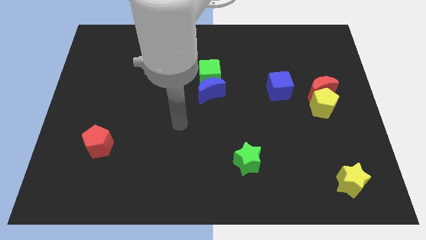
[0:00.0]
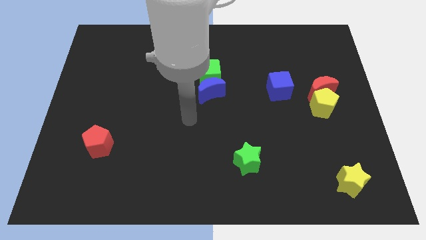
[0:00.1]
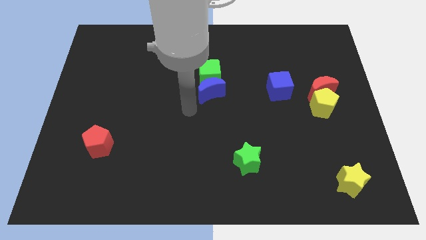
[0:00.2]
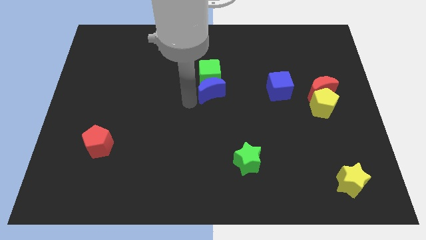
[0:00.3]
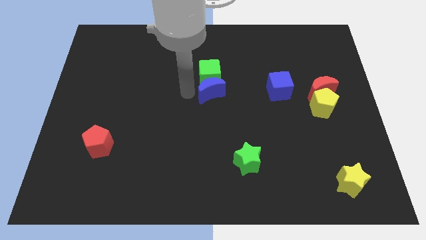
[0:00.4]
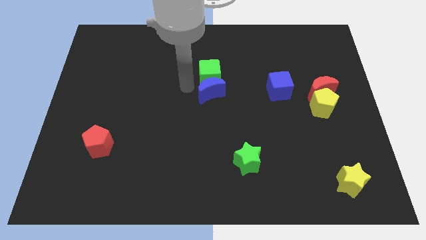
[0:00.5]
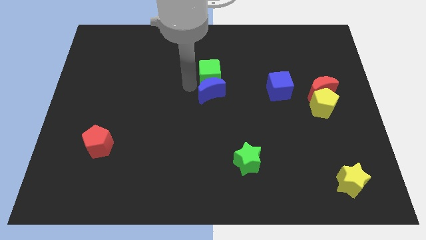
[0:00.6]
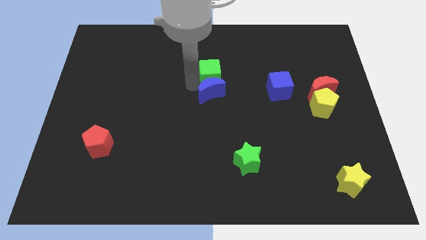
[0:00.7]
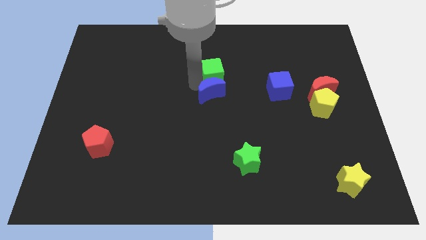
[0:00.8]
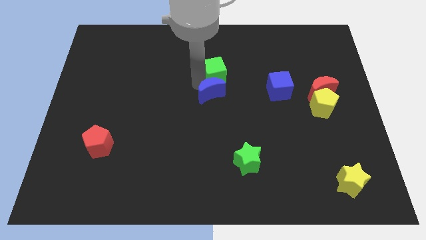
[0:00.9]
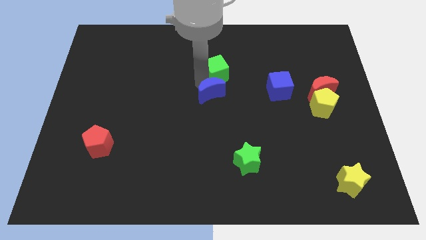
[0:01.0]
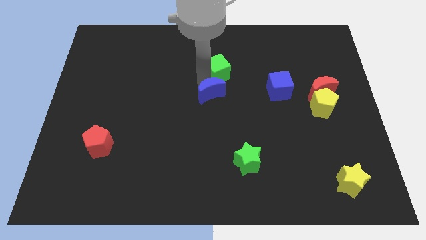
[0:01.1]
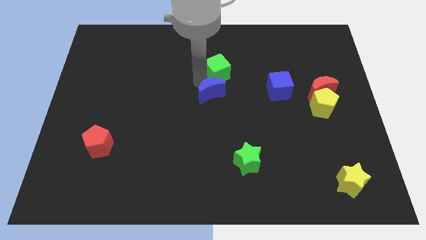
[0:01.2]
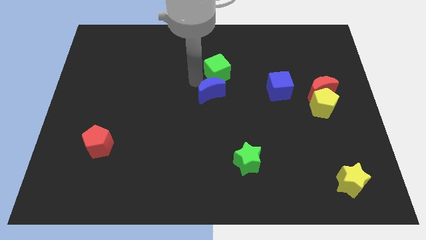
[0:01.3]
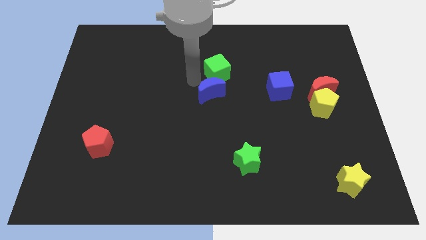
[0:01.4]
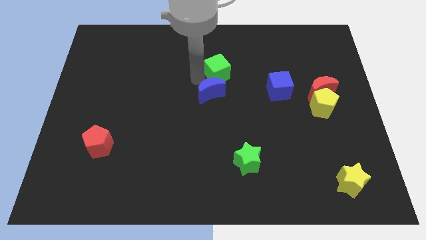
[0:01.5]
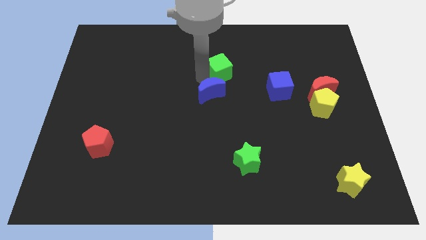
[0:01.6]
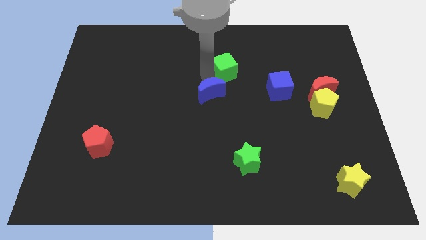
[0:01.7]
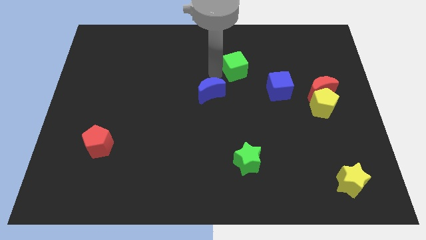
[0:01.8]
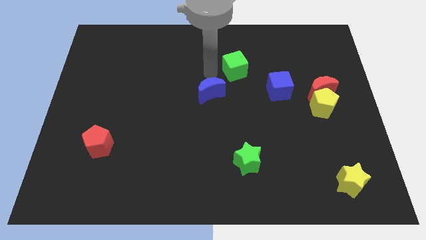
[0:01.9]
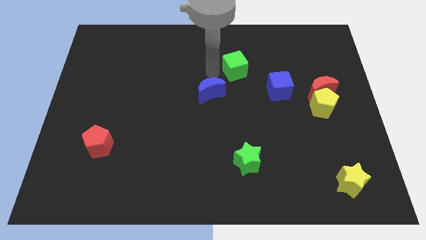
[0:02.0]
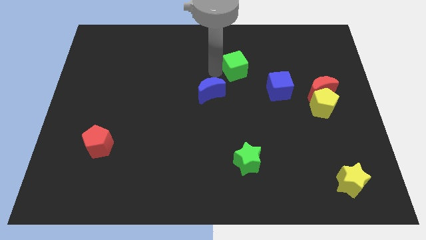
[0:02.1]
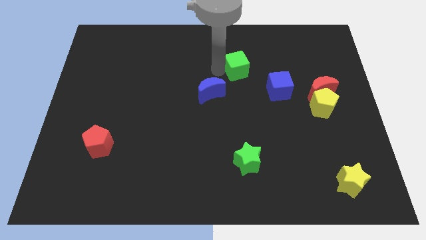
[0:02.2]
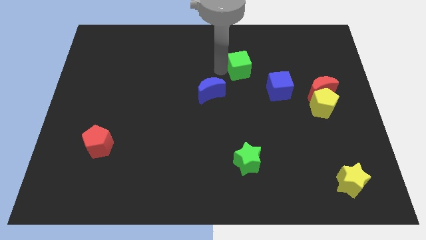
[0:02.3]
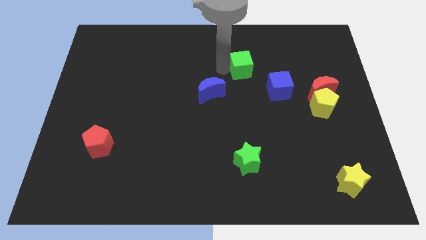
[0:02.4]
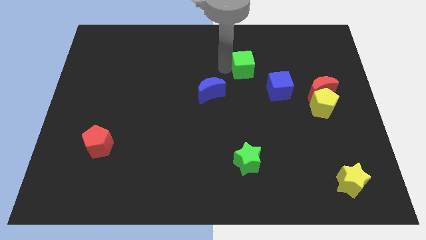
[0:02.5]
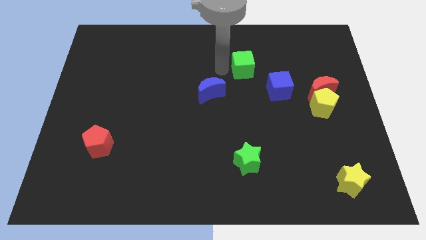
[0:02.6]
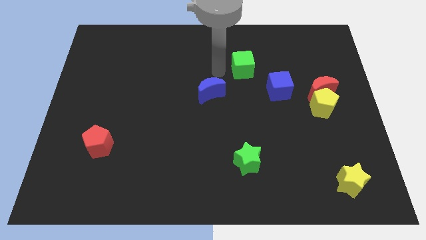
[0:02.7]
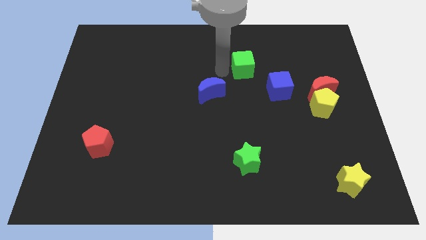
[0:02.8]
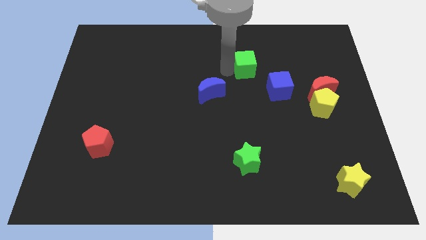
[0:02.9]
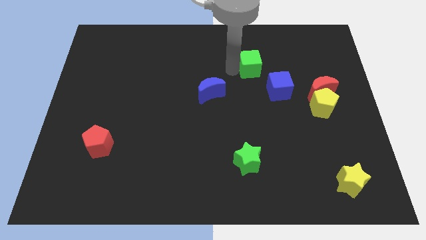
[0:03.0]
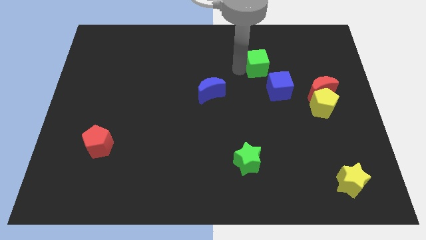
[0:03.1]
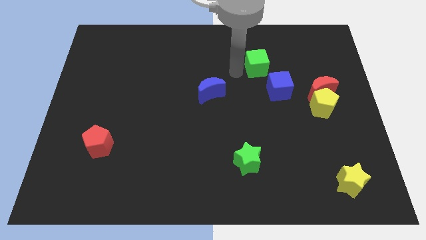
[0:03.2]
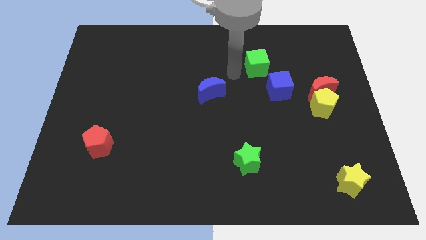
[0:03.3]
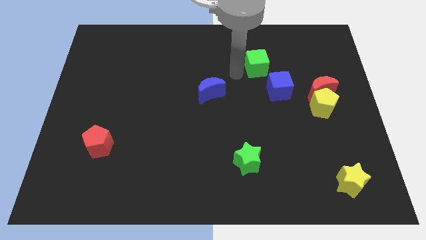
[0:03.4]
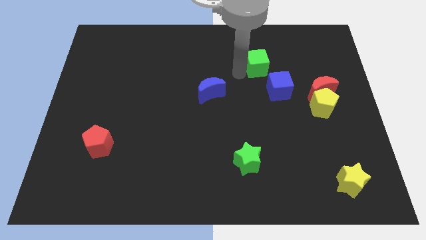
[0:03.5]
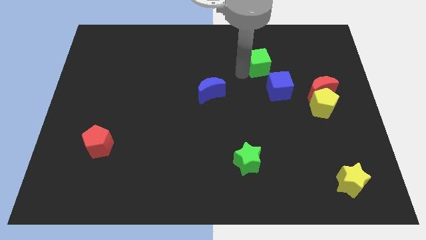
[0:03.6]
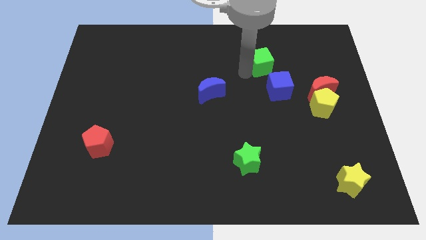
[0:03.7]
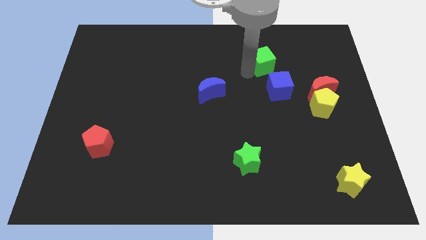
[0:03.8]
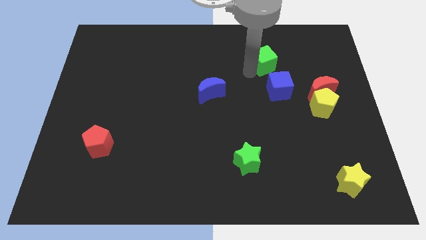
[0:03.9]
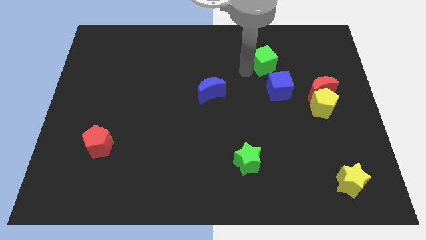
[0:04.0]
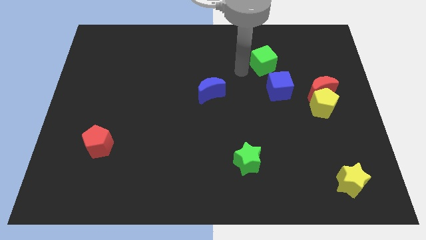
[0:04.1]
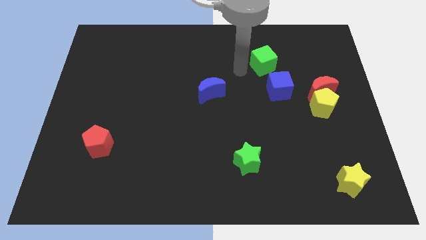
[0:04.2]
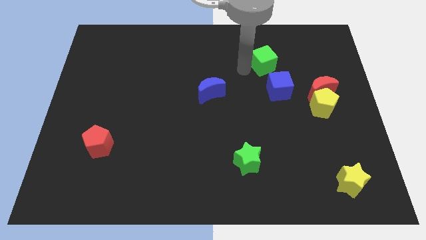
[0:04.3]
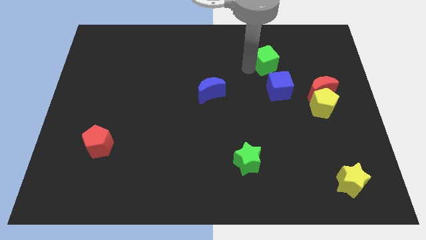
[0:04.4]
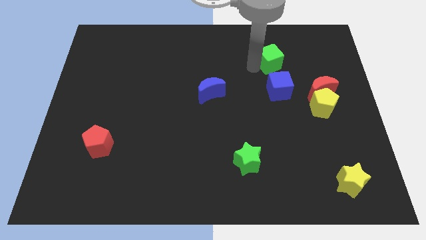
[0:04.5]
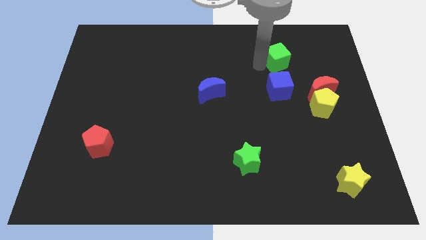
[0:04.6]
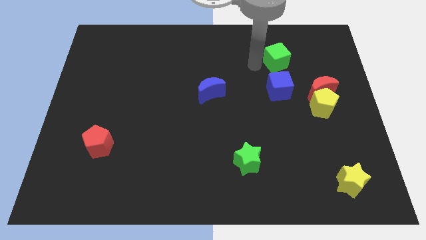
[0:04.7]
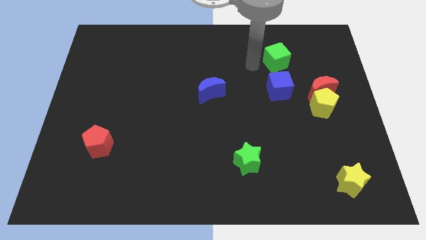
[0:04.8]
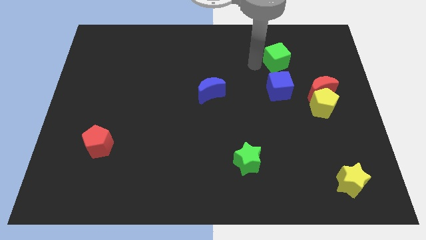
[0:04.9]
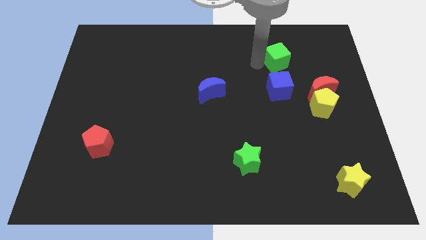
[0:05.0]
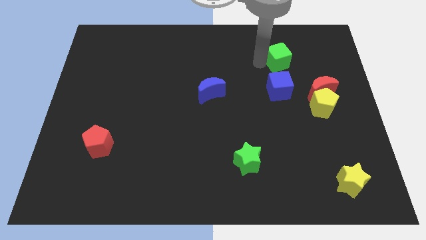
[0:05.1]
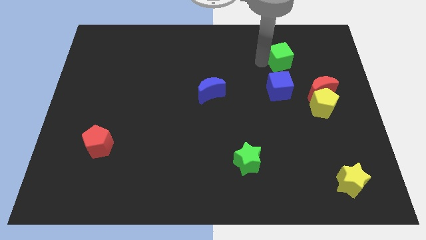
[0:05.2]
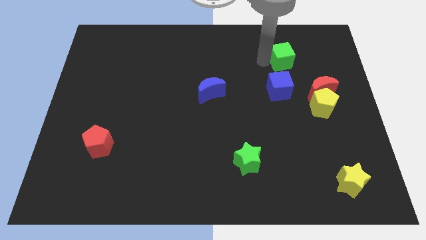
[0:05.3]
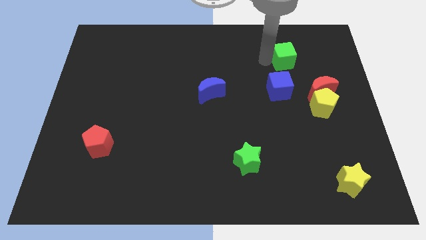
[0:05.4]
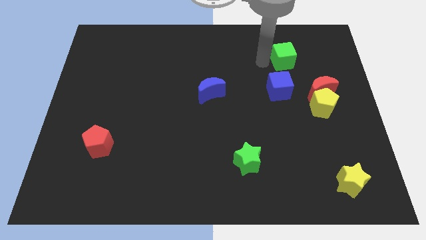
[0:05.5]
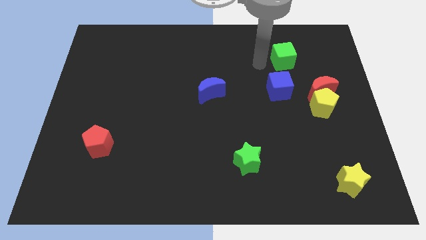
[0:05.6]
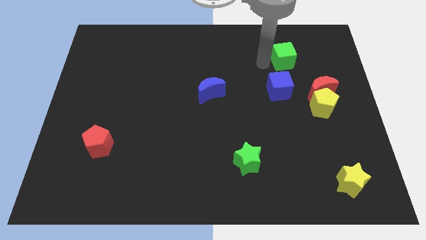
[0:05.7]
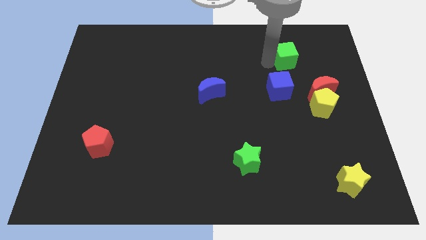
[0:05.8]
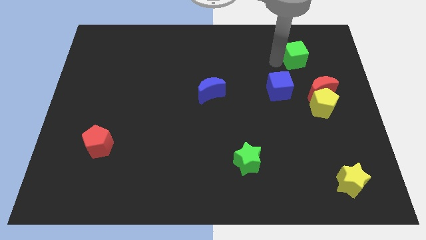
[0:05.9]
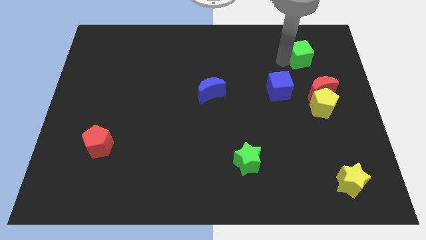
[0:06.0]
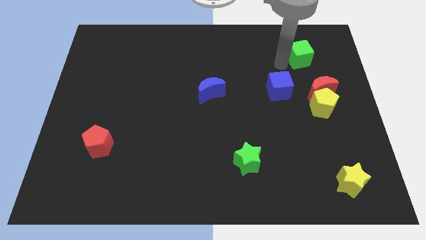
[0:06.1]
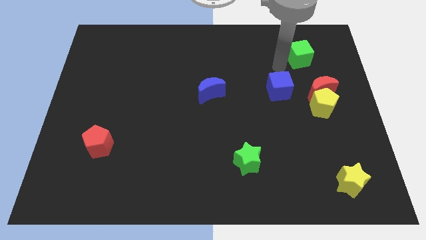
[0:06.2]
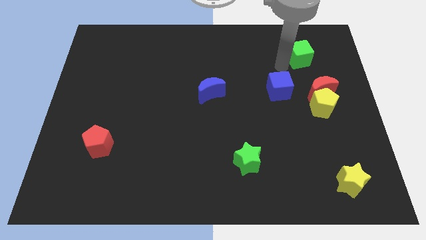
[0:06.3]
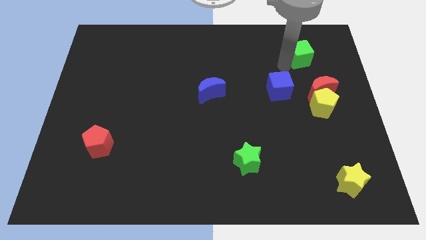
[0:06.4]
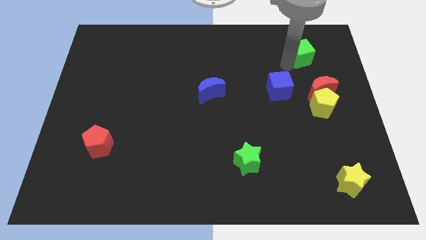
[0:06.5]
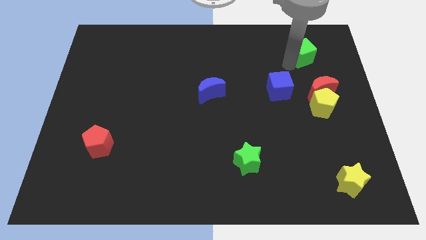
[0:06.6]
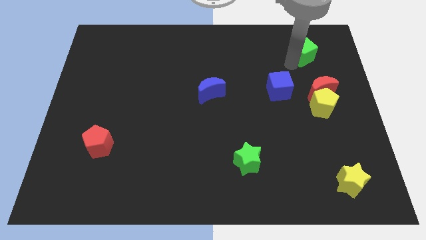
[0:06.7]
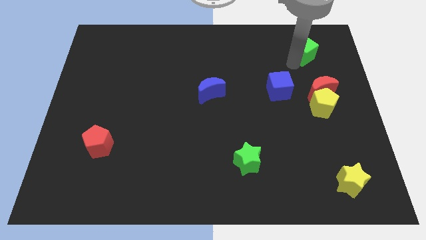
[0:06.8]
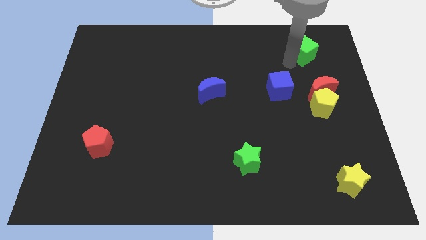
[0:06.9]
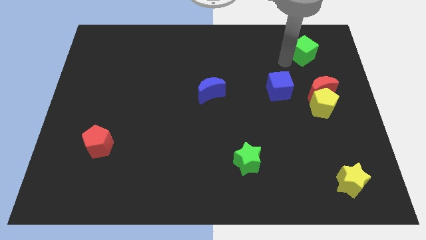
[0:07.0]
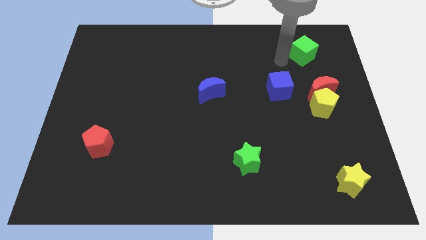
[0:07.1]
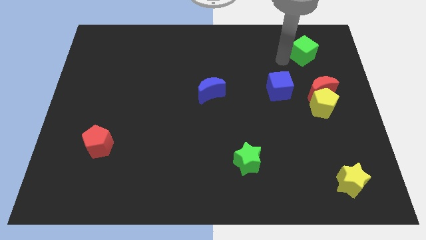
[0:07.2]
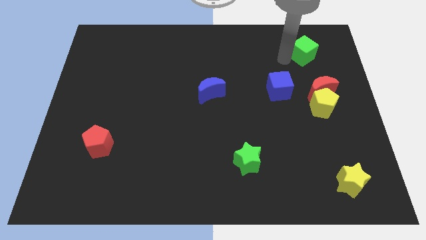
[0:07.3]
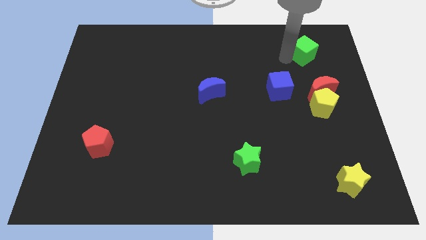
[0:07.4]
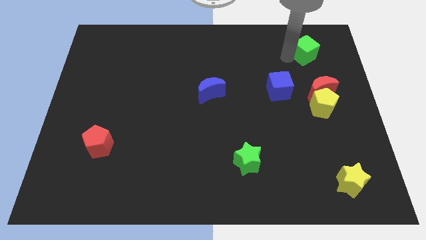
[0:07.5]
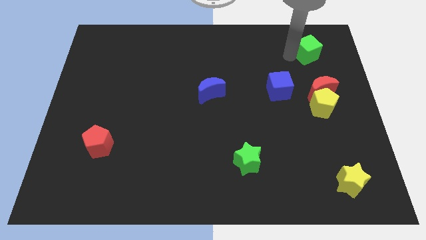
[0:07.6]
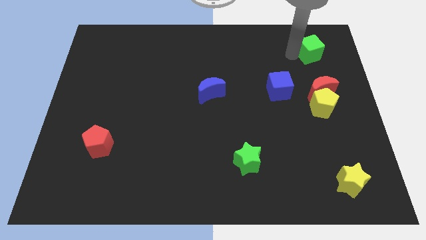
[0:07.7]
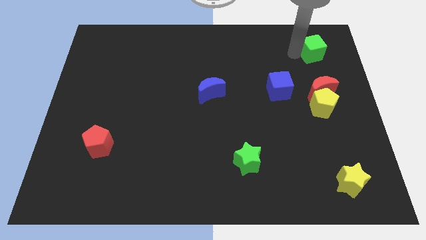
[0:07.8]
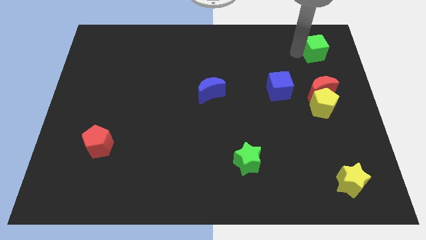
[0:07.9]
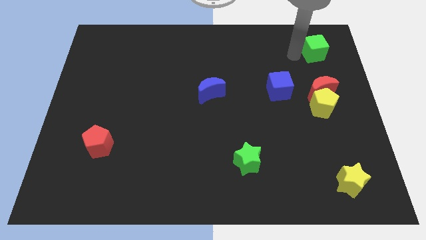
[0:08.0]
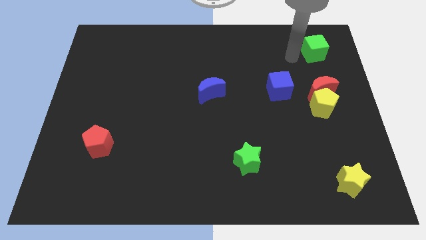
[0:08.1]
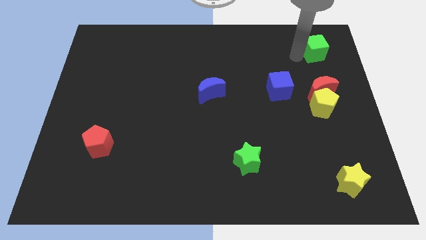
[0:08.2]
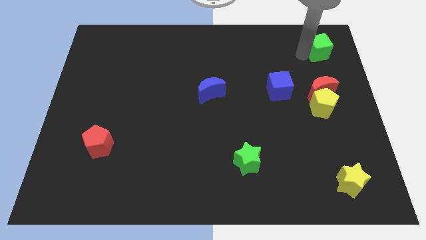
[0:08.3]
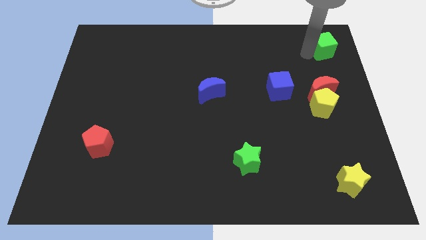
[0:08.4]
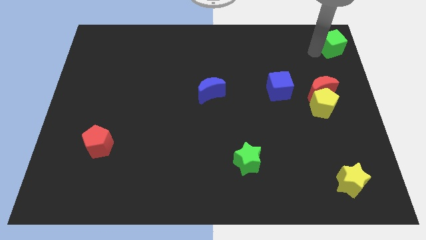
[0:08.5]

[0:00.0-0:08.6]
push the green cube to the top right corner
